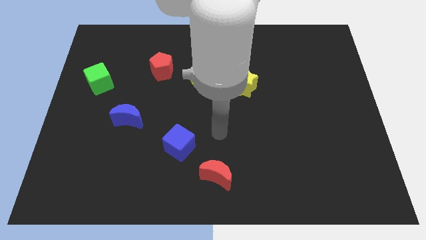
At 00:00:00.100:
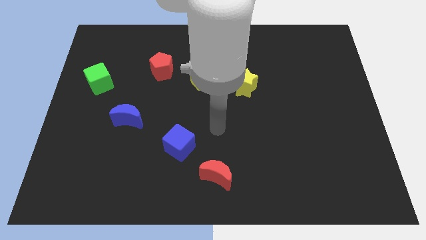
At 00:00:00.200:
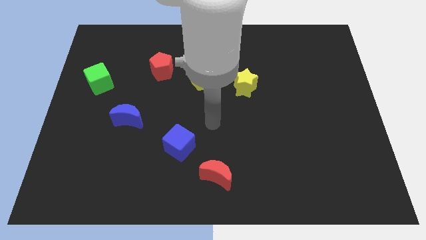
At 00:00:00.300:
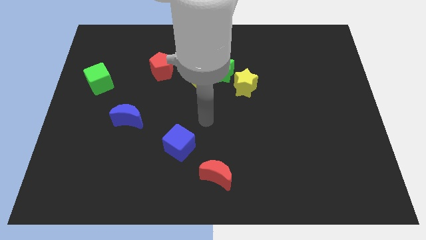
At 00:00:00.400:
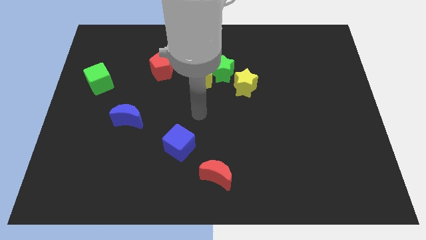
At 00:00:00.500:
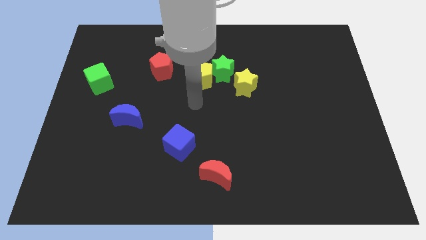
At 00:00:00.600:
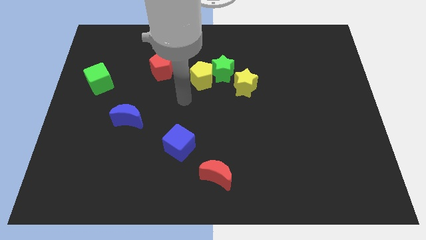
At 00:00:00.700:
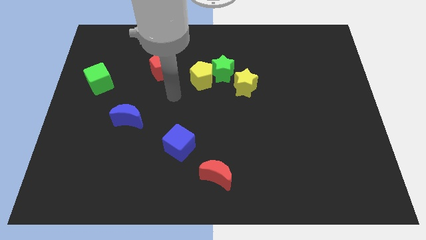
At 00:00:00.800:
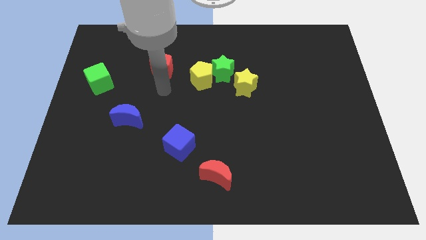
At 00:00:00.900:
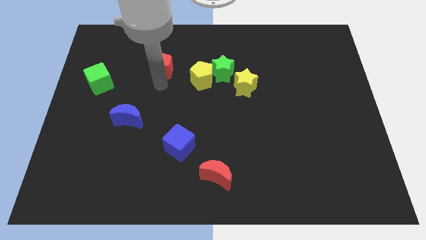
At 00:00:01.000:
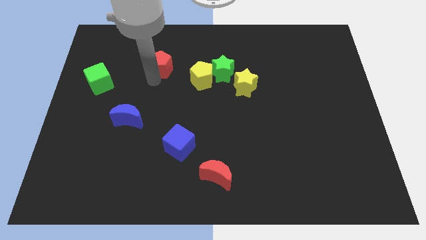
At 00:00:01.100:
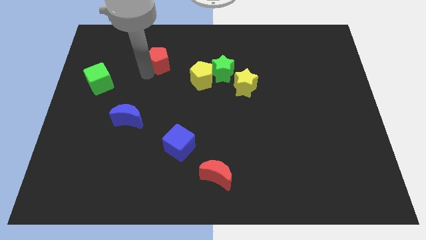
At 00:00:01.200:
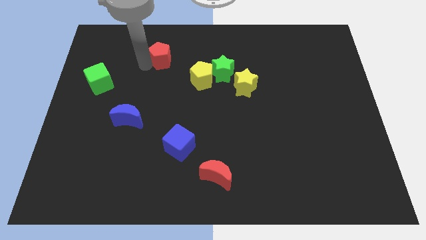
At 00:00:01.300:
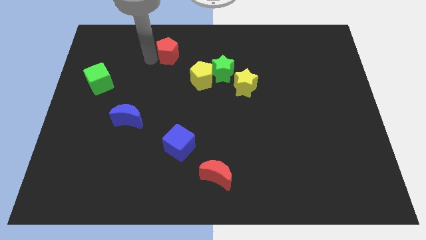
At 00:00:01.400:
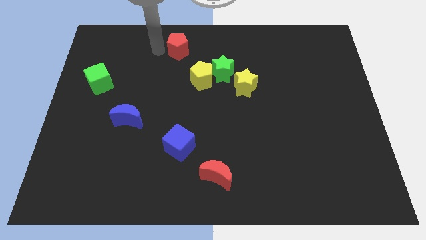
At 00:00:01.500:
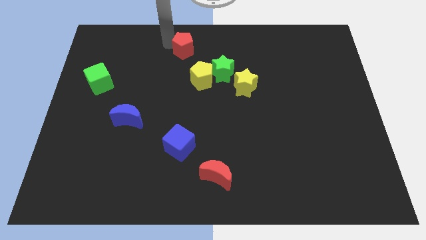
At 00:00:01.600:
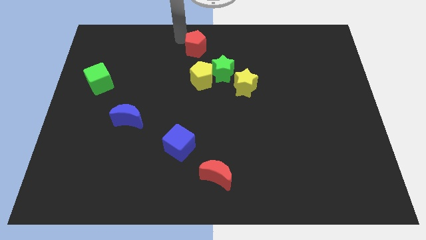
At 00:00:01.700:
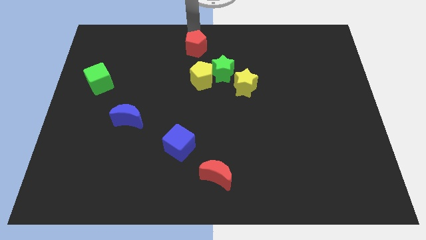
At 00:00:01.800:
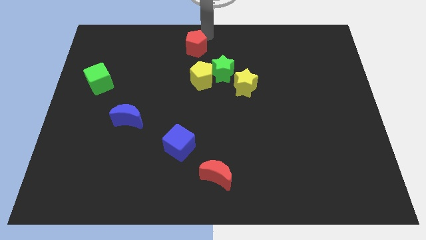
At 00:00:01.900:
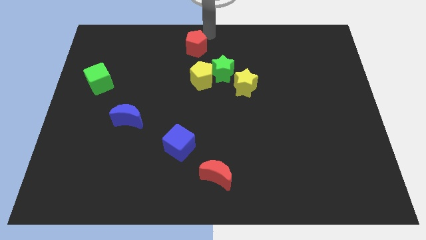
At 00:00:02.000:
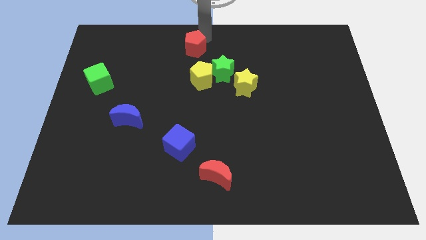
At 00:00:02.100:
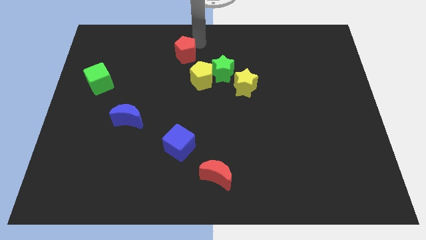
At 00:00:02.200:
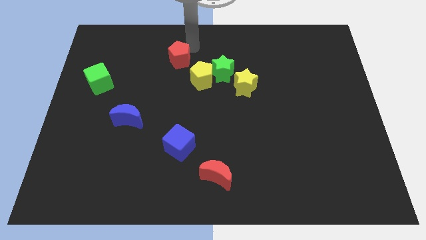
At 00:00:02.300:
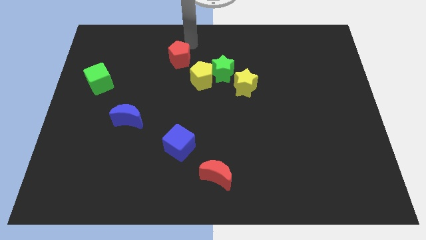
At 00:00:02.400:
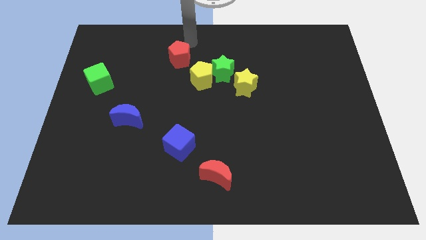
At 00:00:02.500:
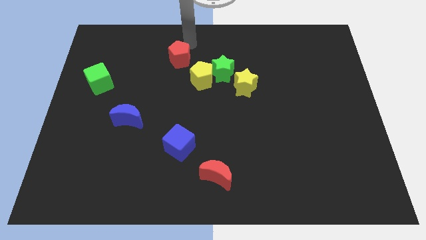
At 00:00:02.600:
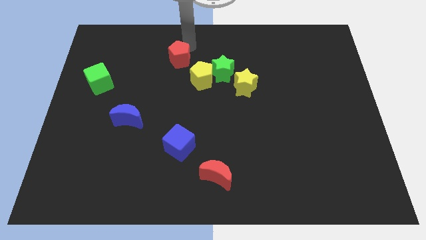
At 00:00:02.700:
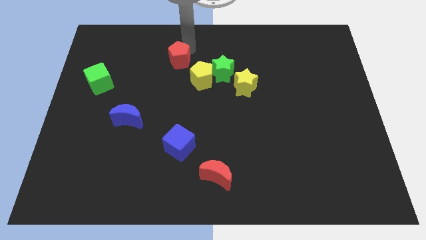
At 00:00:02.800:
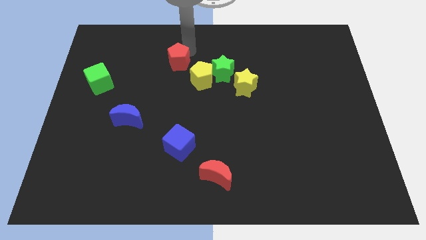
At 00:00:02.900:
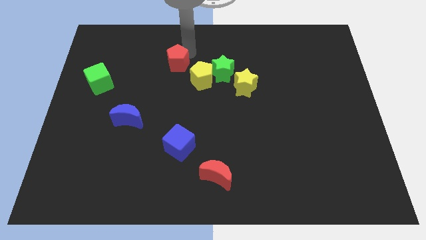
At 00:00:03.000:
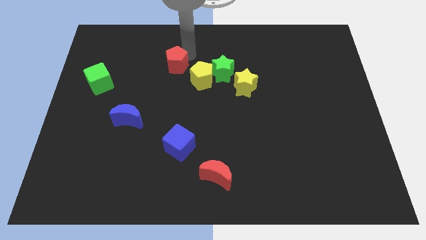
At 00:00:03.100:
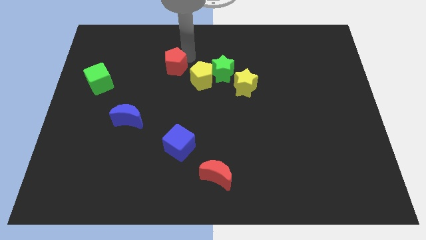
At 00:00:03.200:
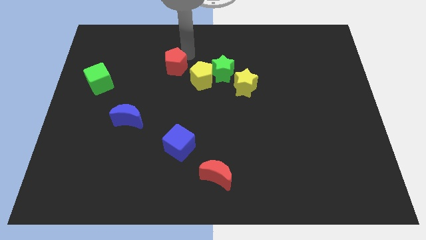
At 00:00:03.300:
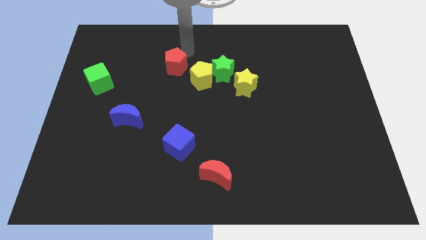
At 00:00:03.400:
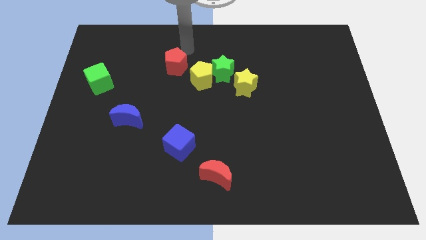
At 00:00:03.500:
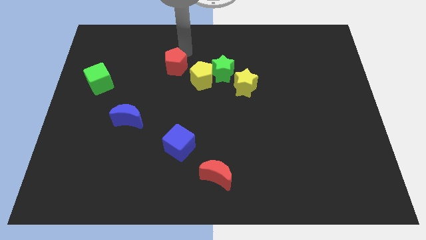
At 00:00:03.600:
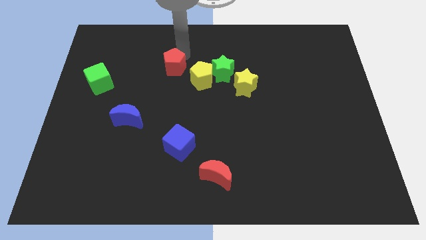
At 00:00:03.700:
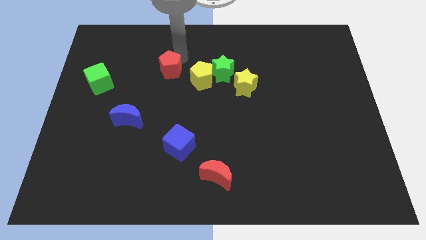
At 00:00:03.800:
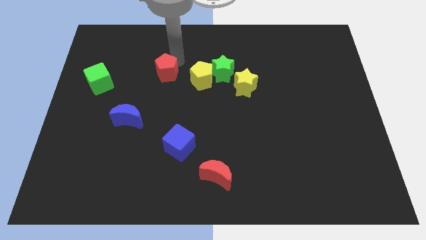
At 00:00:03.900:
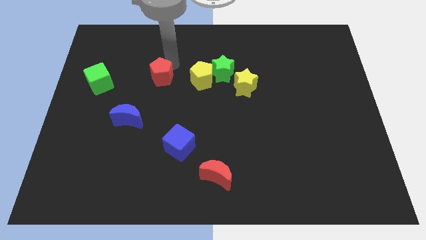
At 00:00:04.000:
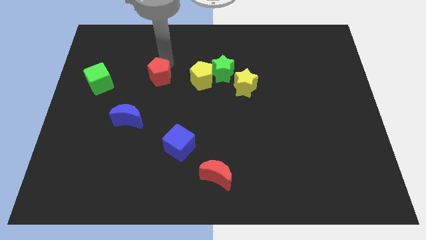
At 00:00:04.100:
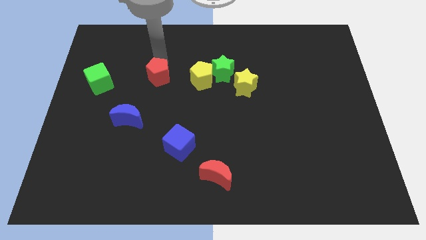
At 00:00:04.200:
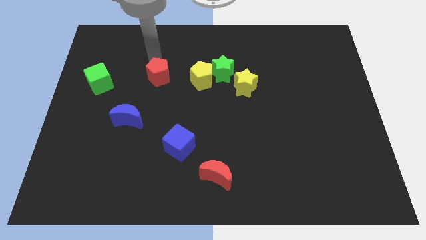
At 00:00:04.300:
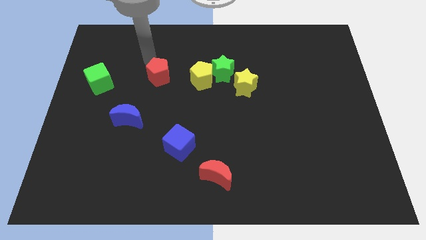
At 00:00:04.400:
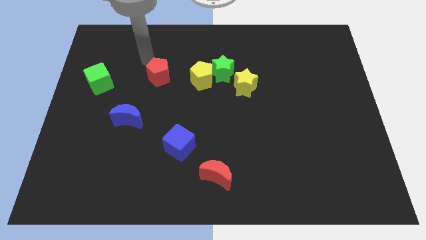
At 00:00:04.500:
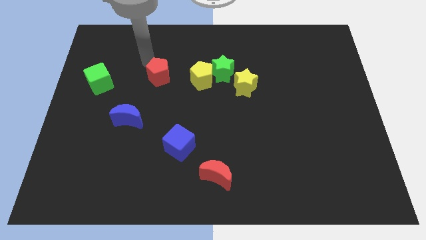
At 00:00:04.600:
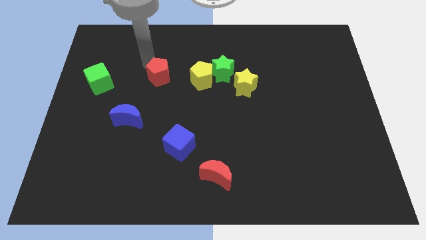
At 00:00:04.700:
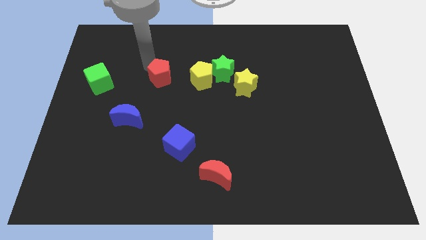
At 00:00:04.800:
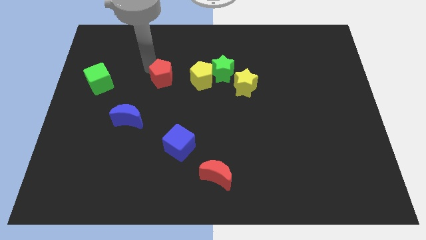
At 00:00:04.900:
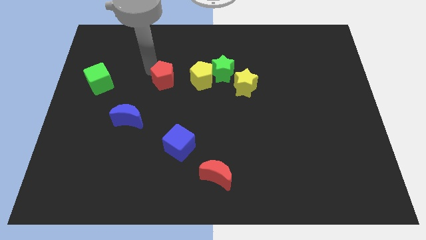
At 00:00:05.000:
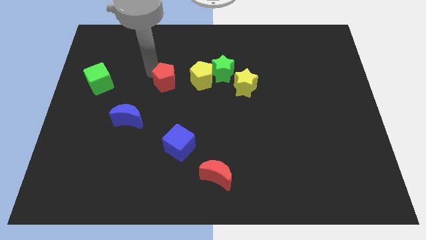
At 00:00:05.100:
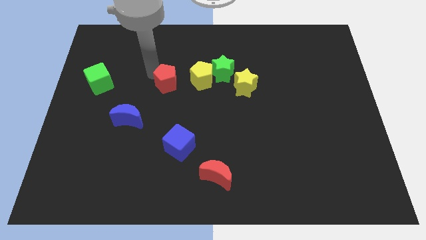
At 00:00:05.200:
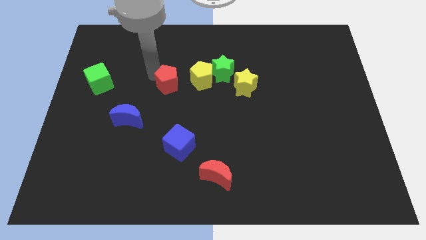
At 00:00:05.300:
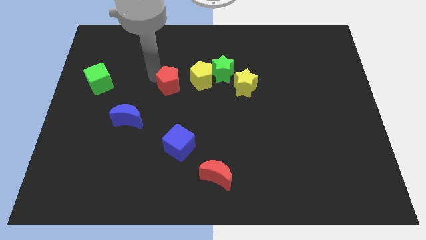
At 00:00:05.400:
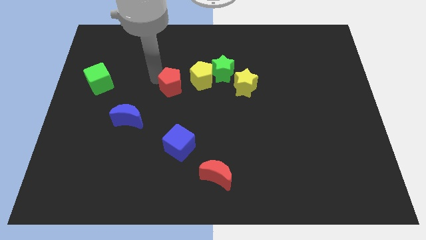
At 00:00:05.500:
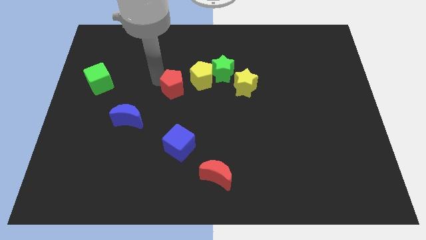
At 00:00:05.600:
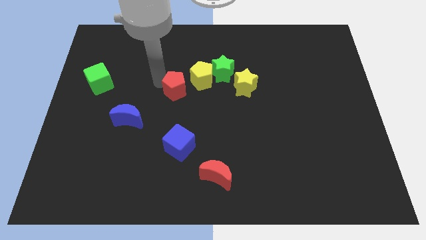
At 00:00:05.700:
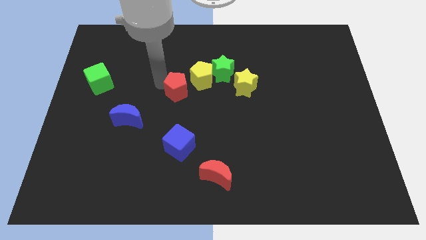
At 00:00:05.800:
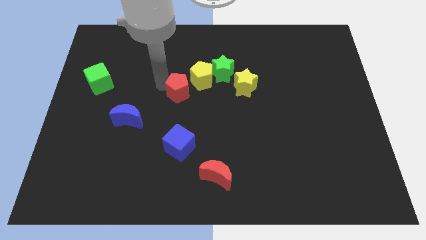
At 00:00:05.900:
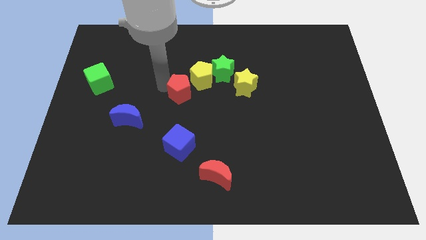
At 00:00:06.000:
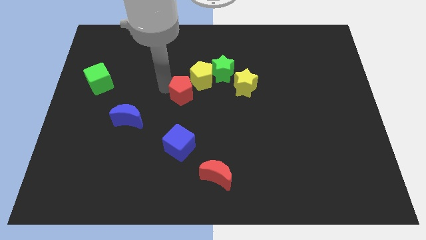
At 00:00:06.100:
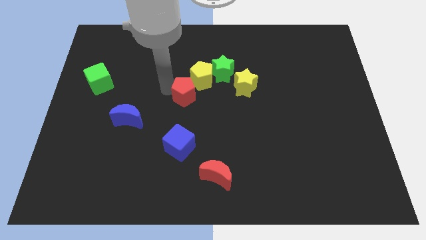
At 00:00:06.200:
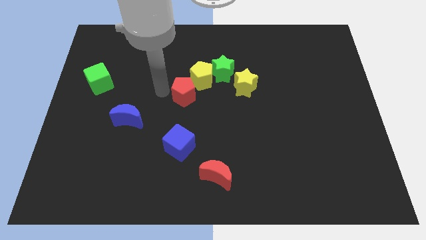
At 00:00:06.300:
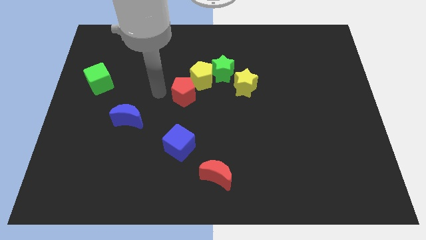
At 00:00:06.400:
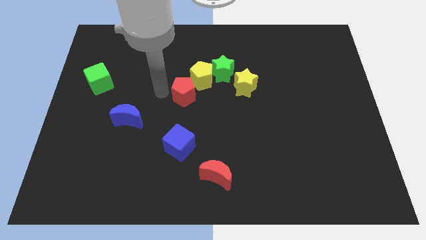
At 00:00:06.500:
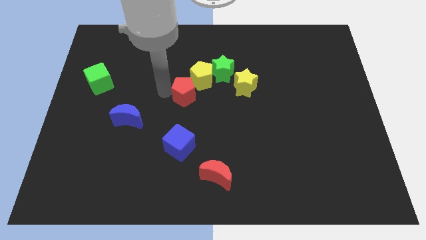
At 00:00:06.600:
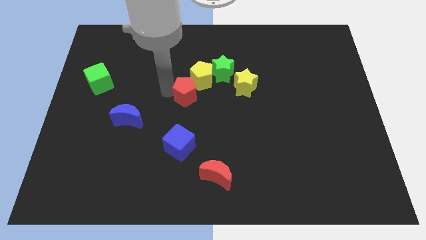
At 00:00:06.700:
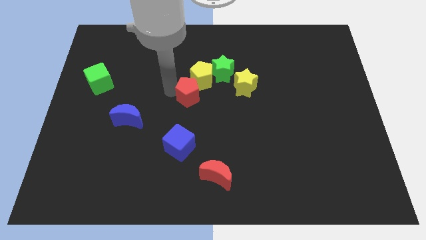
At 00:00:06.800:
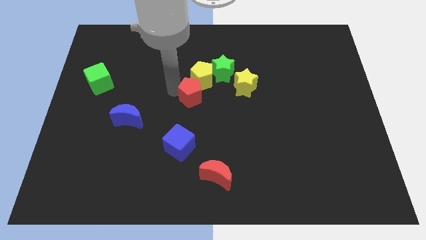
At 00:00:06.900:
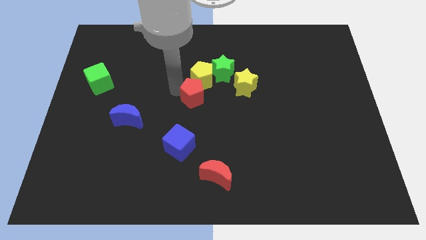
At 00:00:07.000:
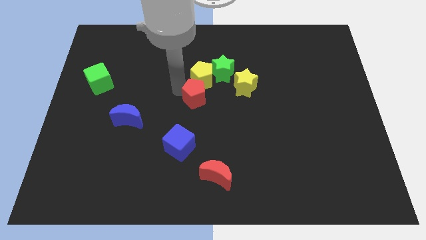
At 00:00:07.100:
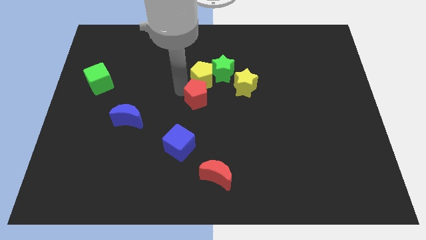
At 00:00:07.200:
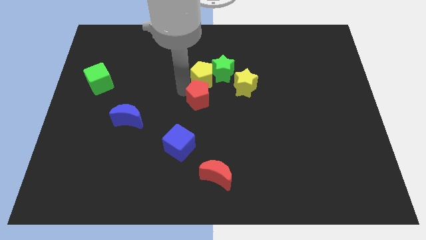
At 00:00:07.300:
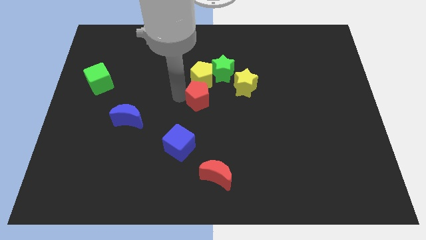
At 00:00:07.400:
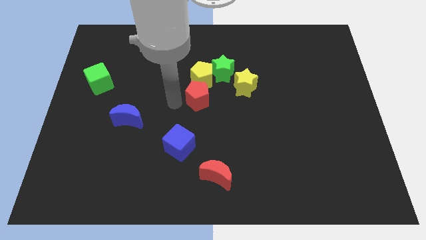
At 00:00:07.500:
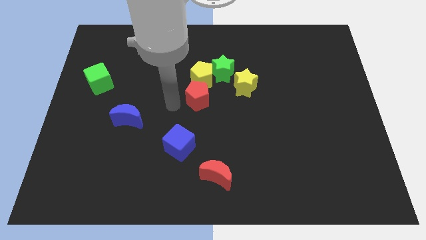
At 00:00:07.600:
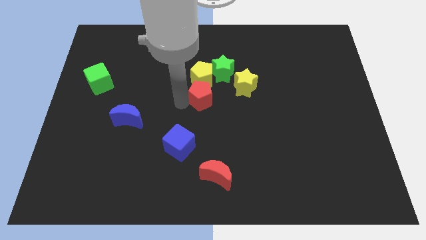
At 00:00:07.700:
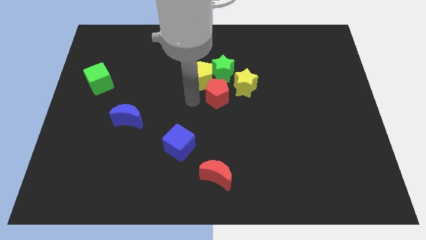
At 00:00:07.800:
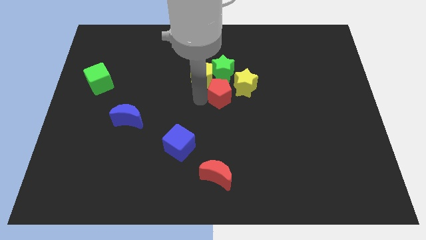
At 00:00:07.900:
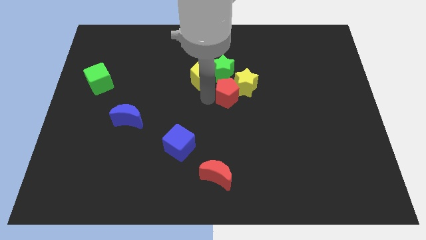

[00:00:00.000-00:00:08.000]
push the red pentagon next to the yellow star
